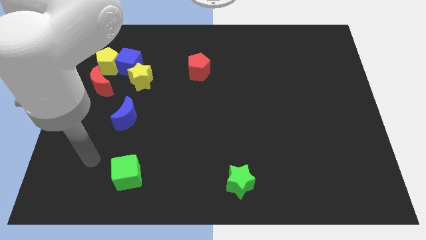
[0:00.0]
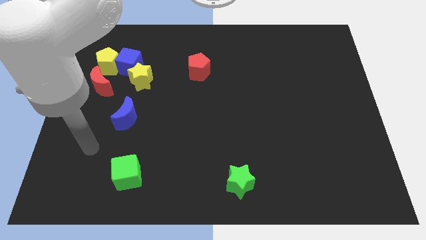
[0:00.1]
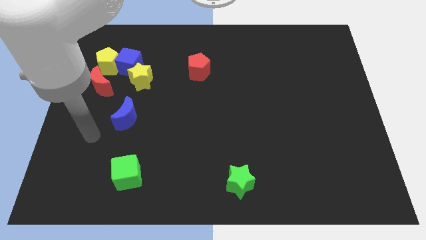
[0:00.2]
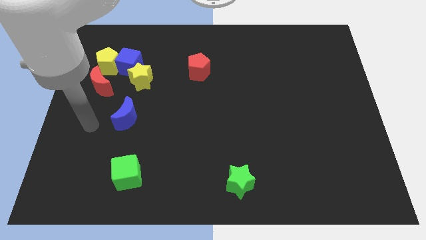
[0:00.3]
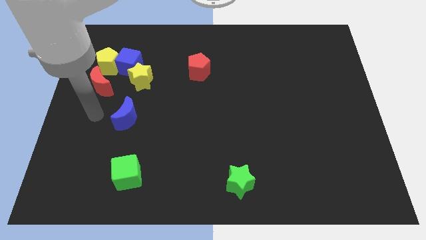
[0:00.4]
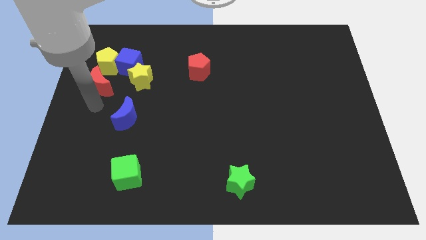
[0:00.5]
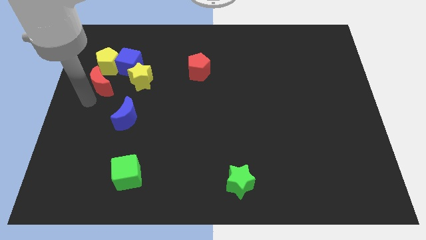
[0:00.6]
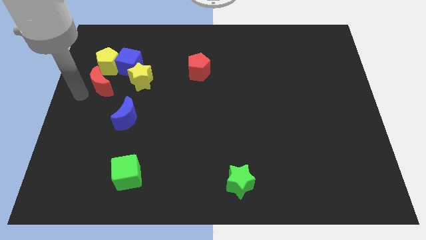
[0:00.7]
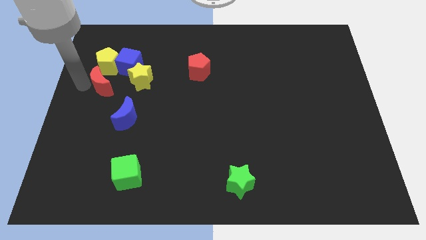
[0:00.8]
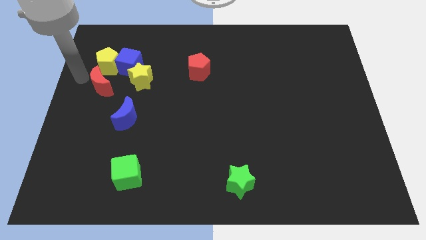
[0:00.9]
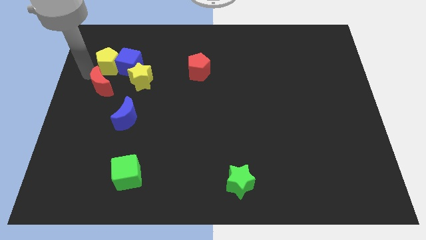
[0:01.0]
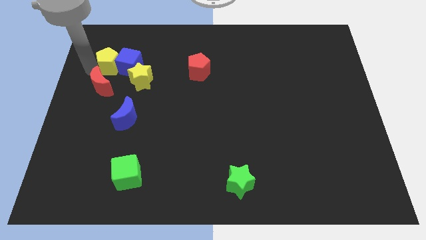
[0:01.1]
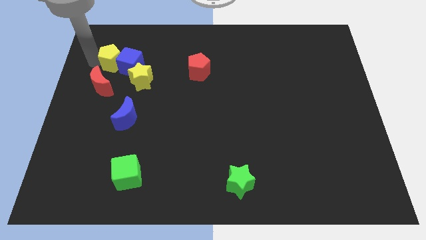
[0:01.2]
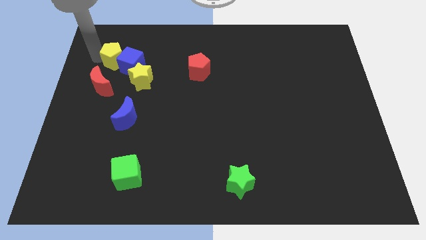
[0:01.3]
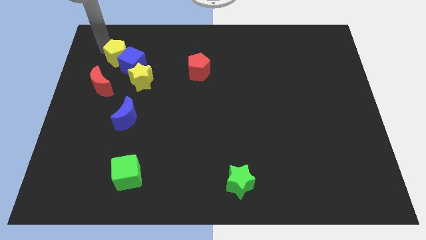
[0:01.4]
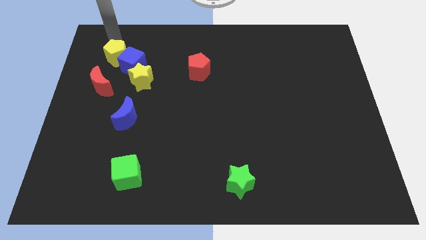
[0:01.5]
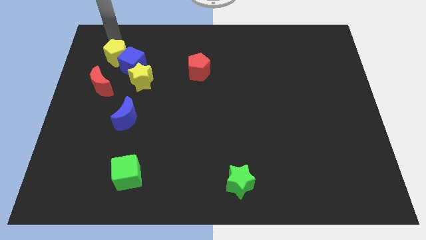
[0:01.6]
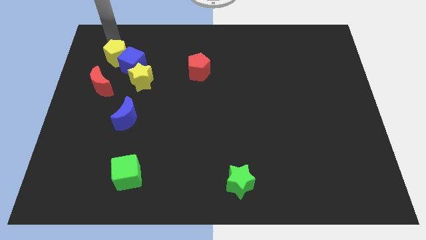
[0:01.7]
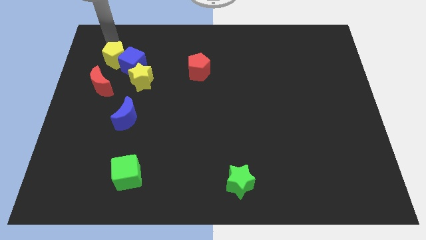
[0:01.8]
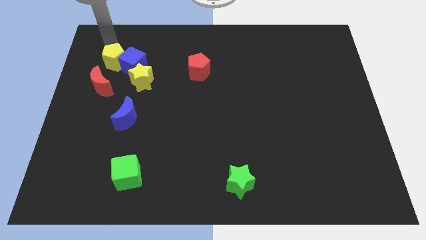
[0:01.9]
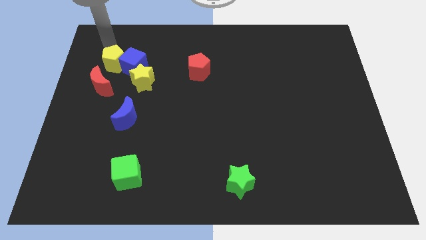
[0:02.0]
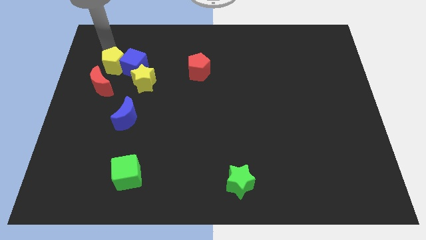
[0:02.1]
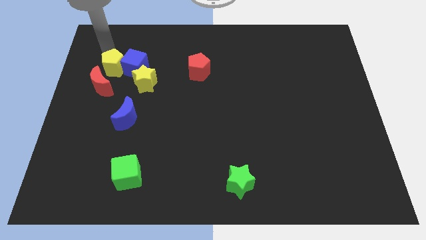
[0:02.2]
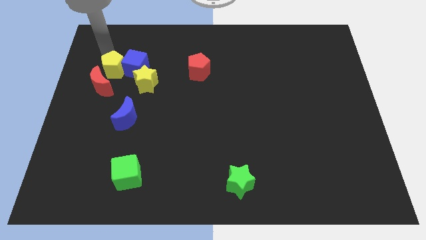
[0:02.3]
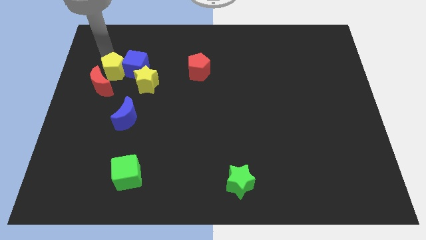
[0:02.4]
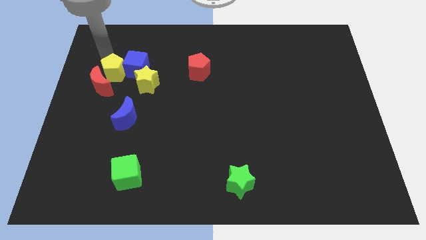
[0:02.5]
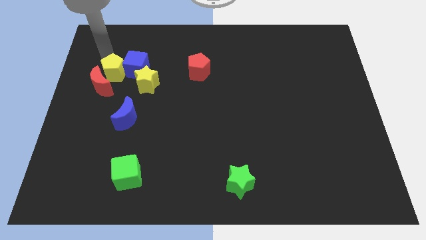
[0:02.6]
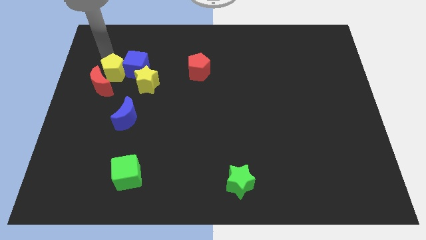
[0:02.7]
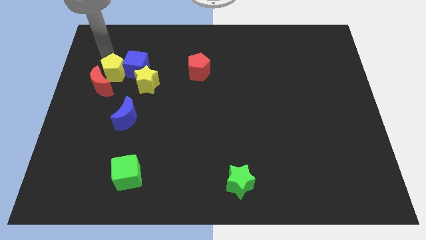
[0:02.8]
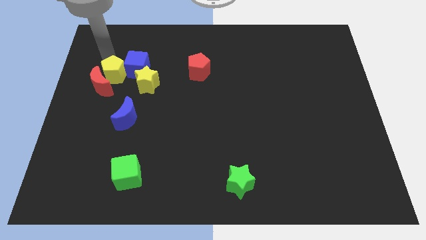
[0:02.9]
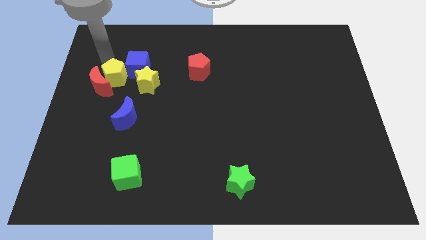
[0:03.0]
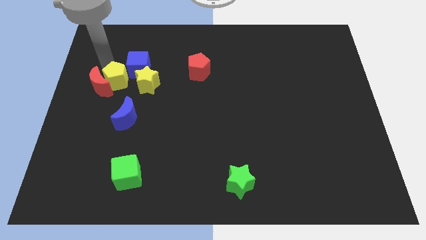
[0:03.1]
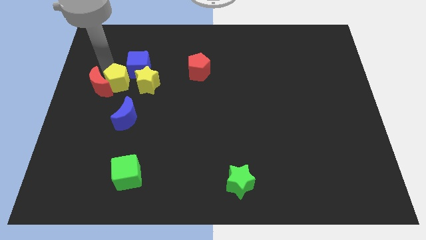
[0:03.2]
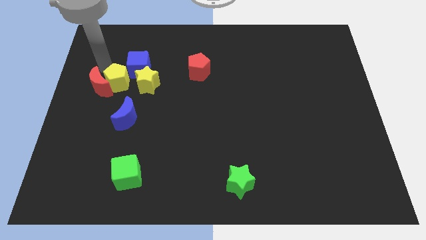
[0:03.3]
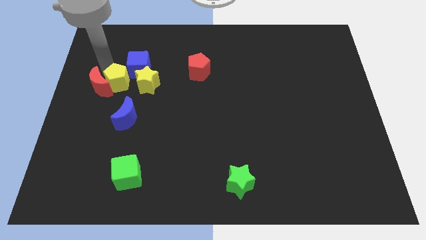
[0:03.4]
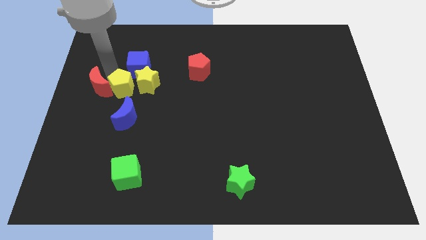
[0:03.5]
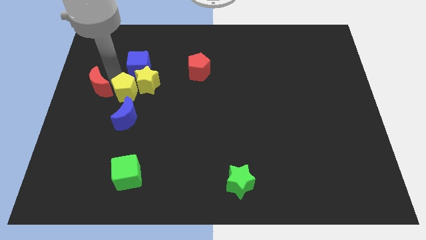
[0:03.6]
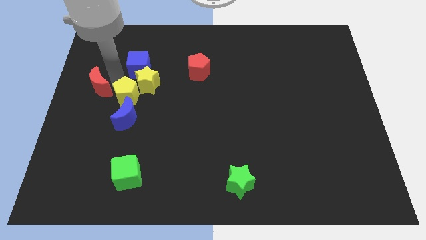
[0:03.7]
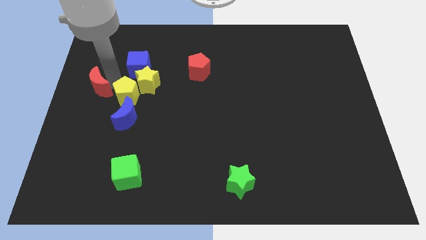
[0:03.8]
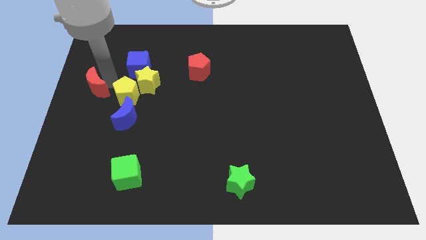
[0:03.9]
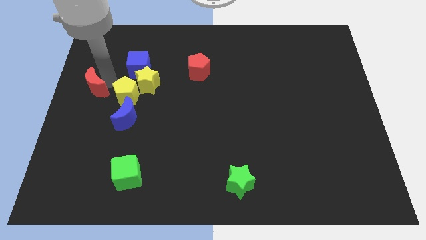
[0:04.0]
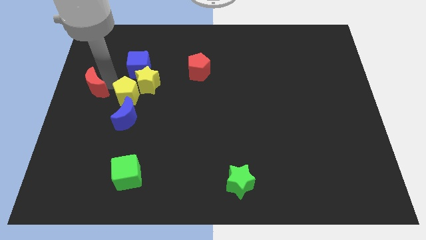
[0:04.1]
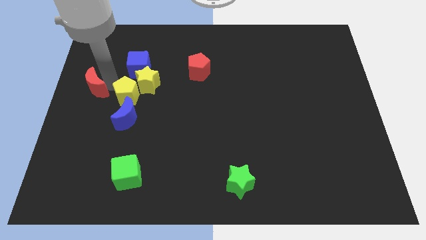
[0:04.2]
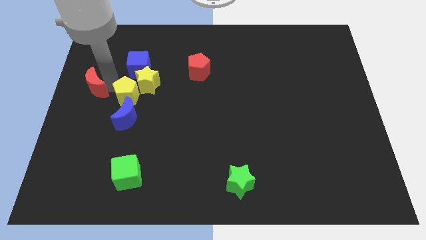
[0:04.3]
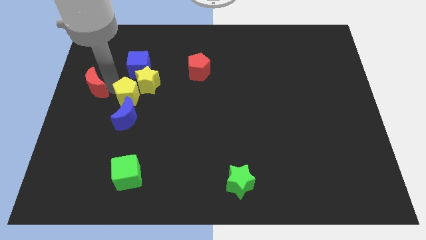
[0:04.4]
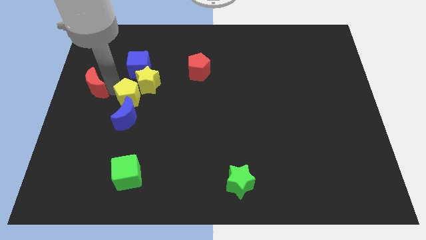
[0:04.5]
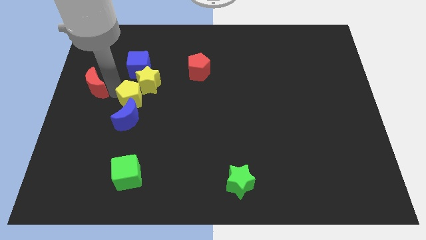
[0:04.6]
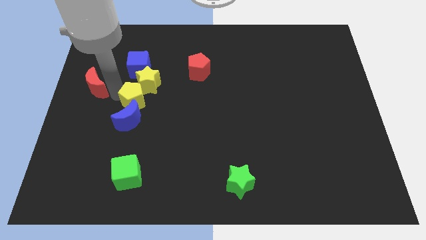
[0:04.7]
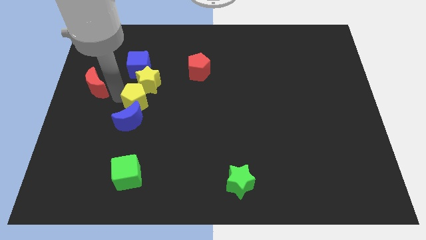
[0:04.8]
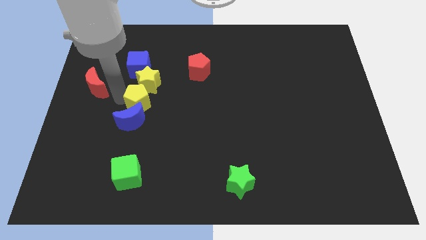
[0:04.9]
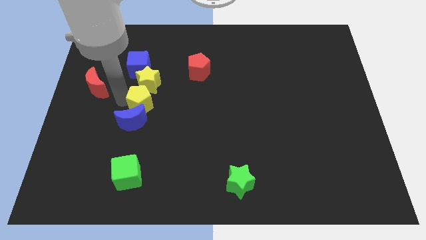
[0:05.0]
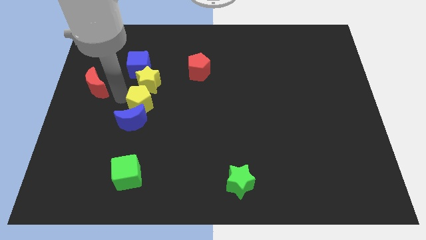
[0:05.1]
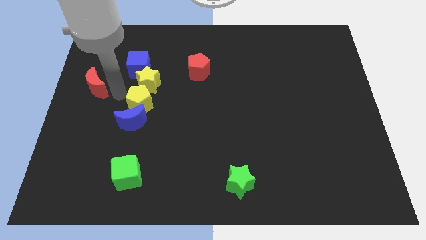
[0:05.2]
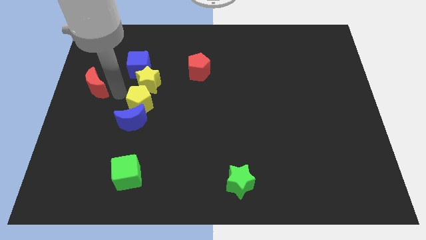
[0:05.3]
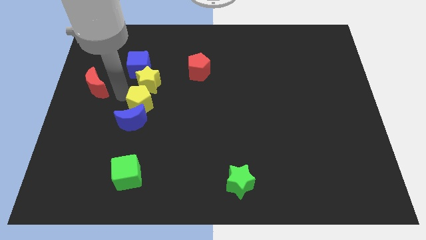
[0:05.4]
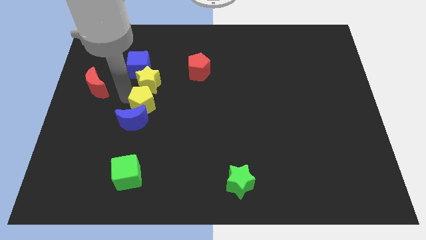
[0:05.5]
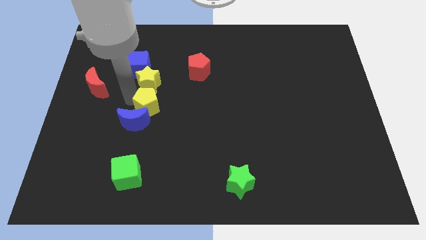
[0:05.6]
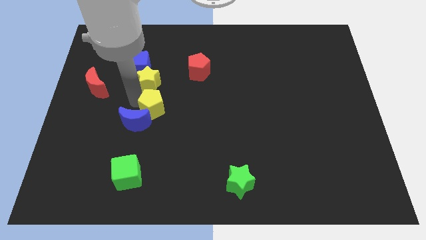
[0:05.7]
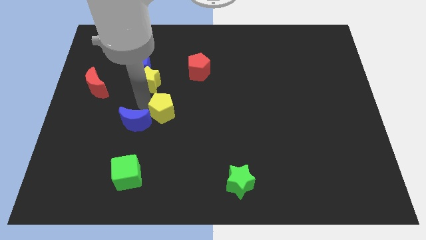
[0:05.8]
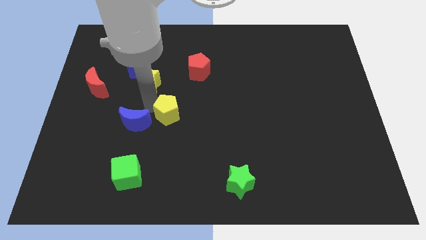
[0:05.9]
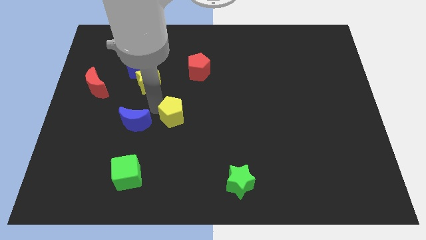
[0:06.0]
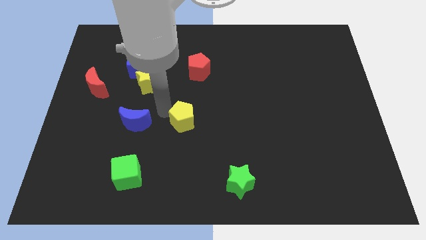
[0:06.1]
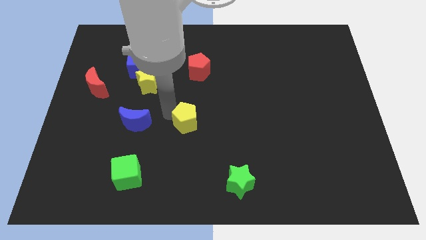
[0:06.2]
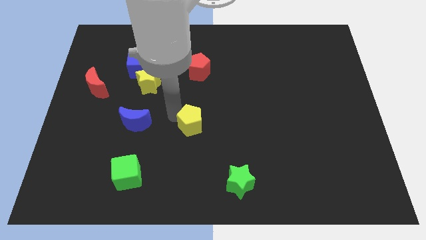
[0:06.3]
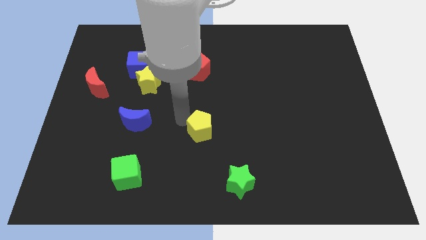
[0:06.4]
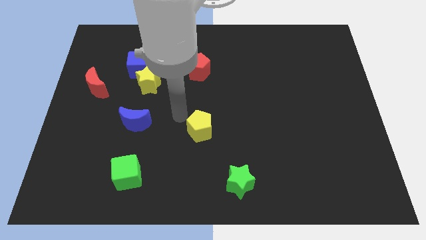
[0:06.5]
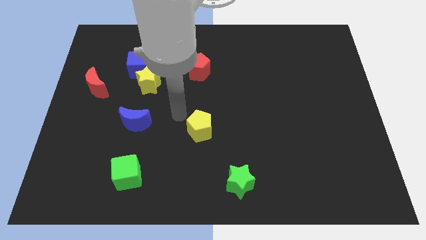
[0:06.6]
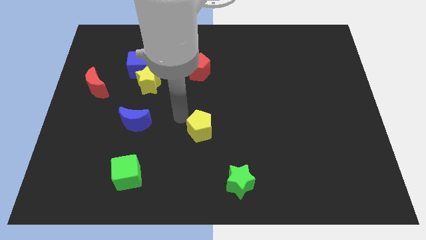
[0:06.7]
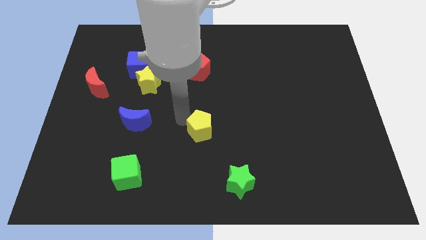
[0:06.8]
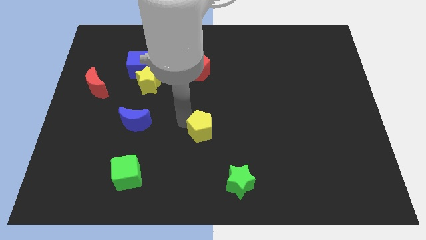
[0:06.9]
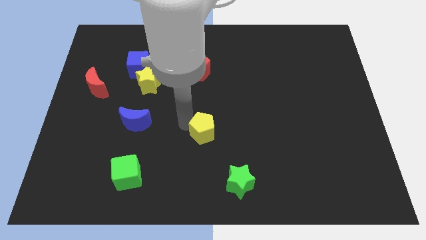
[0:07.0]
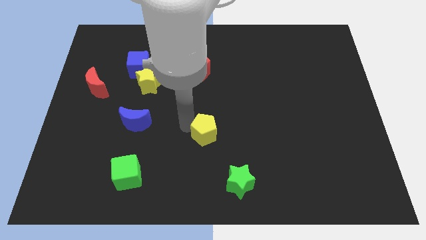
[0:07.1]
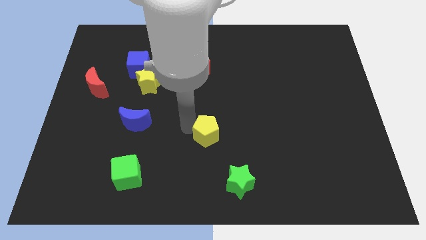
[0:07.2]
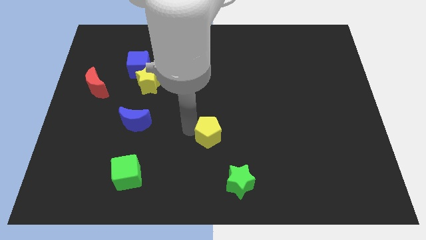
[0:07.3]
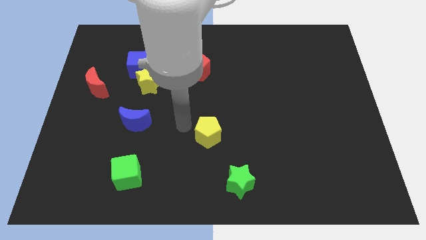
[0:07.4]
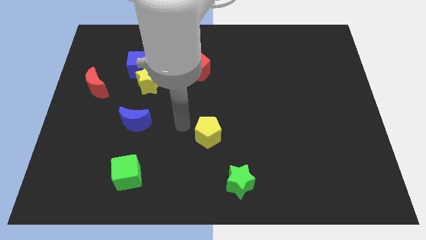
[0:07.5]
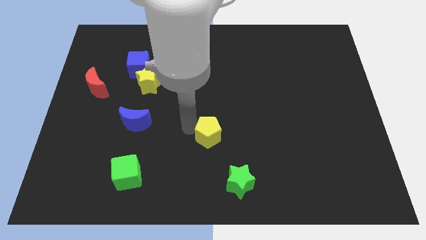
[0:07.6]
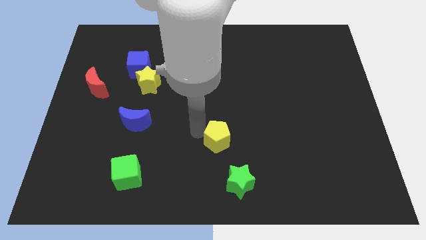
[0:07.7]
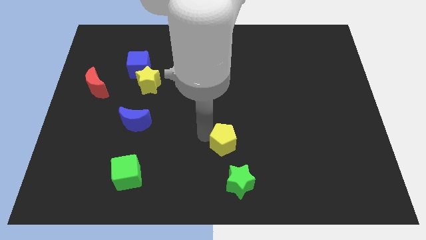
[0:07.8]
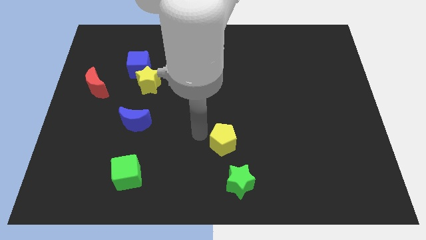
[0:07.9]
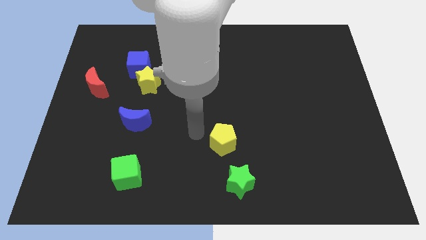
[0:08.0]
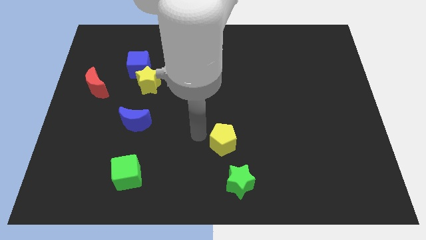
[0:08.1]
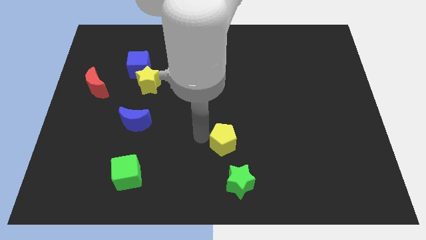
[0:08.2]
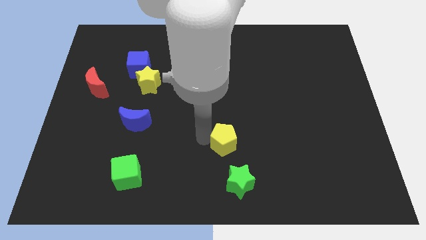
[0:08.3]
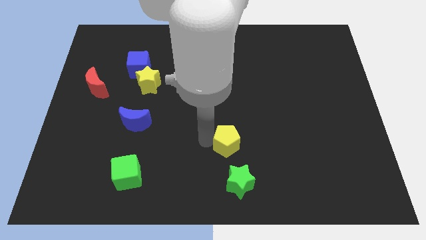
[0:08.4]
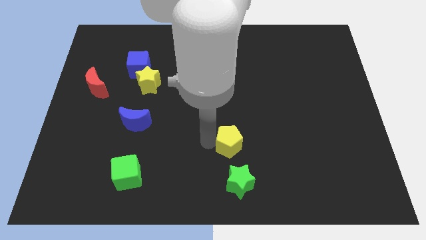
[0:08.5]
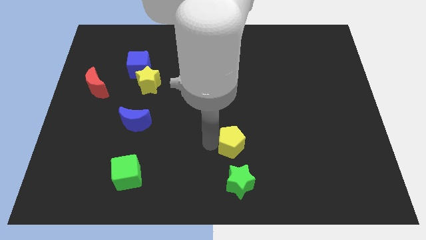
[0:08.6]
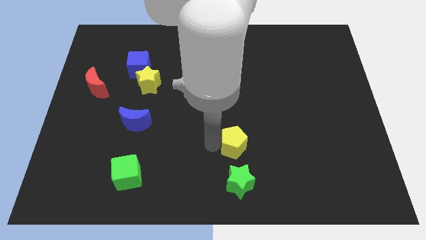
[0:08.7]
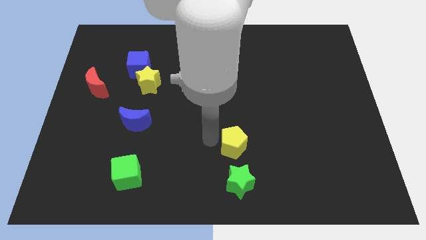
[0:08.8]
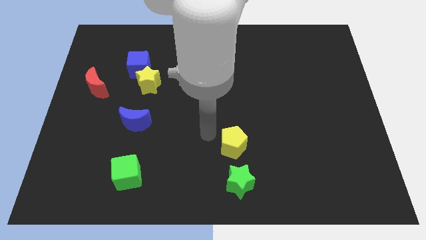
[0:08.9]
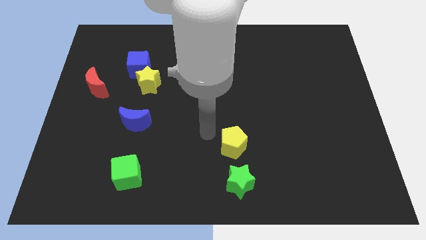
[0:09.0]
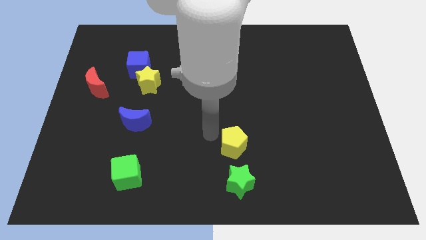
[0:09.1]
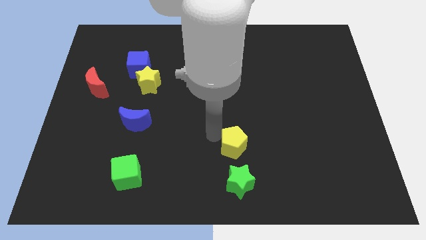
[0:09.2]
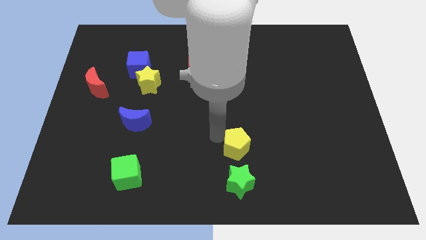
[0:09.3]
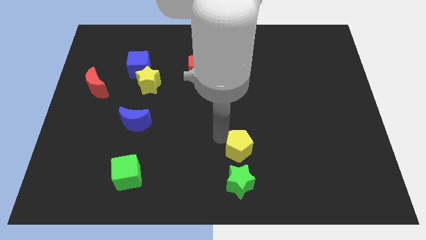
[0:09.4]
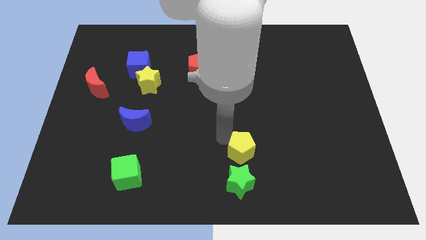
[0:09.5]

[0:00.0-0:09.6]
push the yellow pentagon to the top right of the green star
